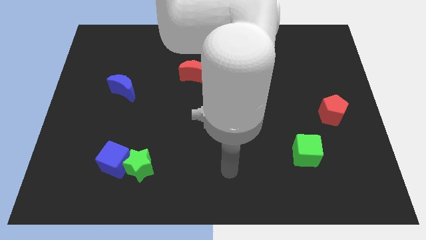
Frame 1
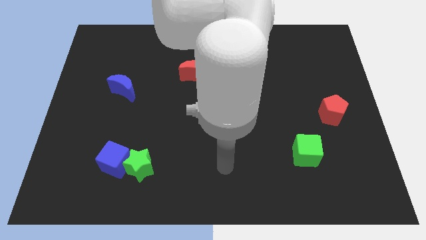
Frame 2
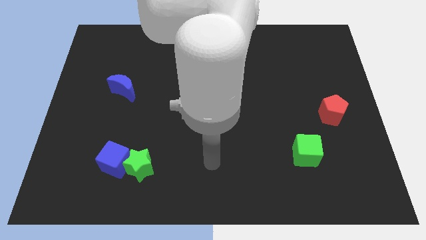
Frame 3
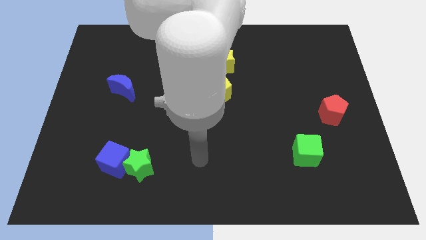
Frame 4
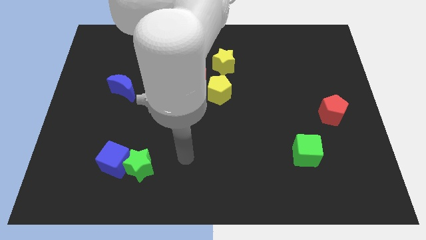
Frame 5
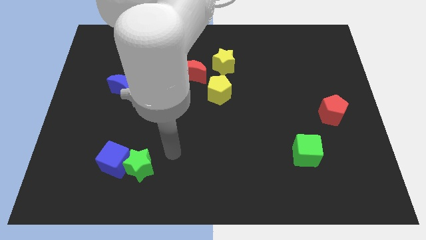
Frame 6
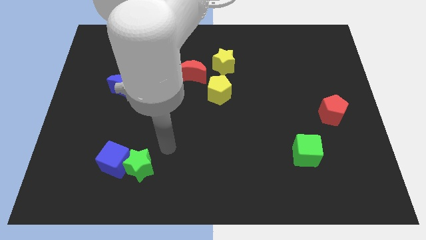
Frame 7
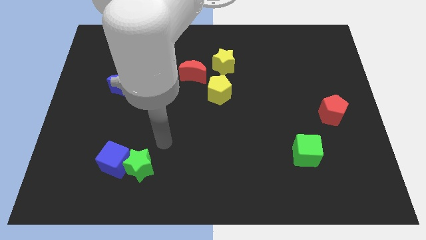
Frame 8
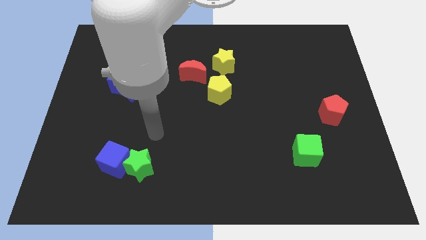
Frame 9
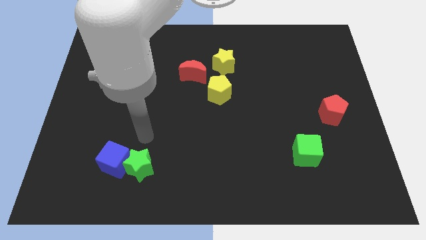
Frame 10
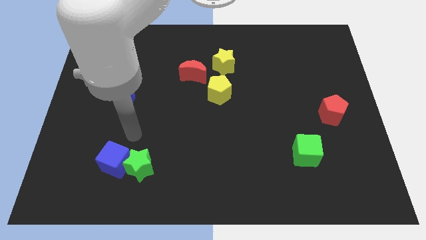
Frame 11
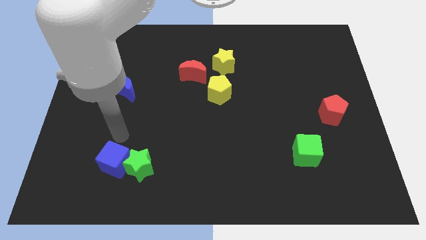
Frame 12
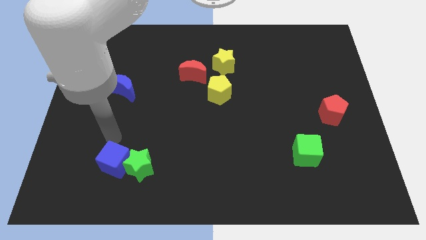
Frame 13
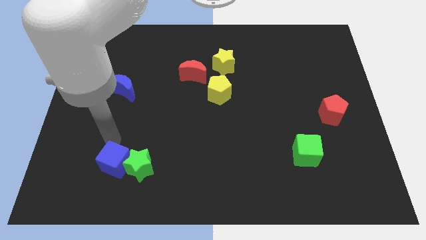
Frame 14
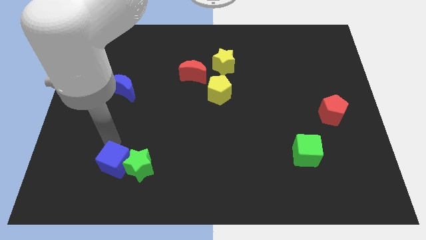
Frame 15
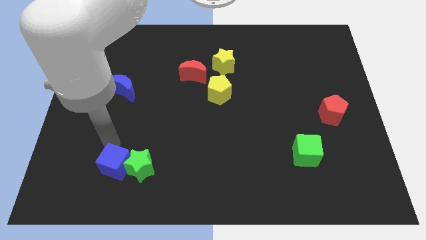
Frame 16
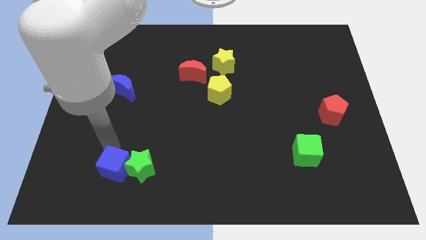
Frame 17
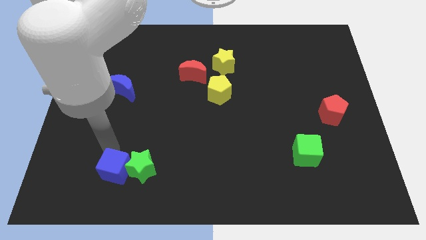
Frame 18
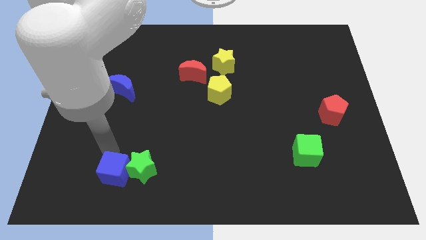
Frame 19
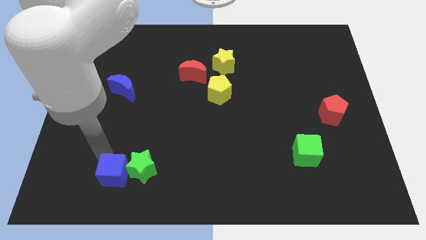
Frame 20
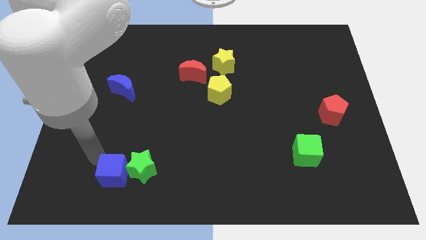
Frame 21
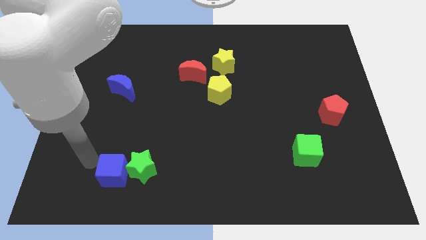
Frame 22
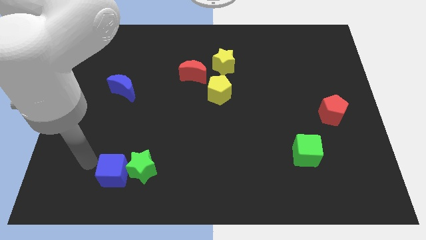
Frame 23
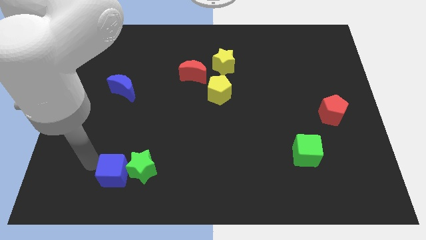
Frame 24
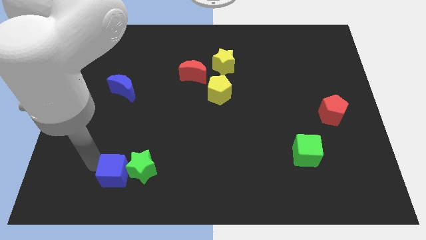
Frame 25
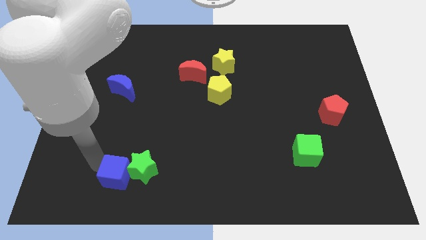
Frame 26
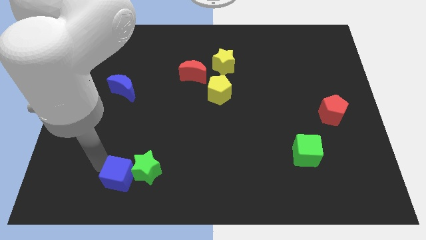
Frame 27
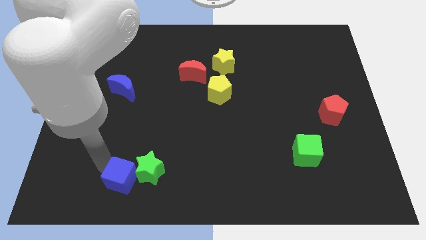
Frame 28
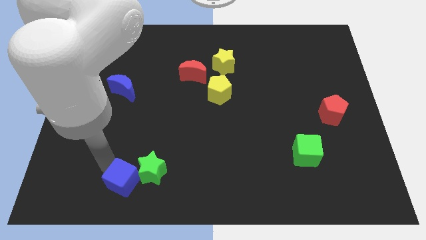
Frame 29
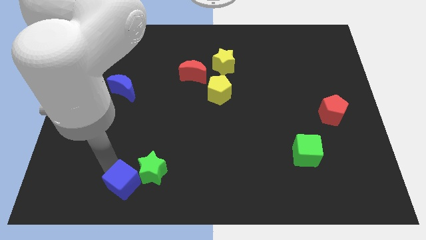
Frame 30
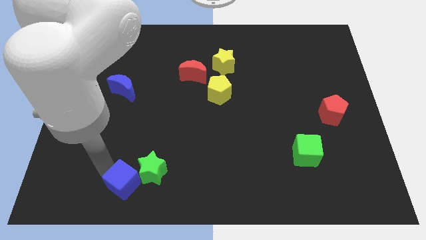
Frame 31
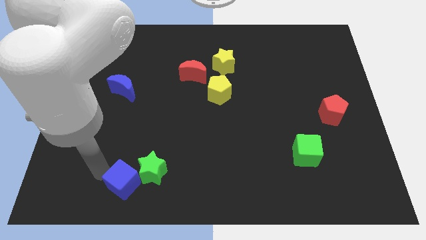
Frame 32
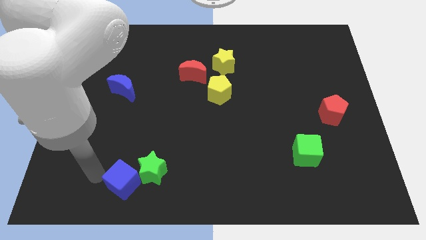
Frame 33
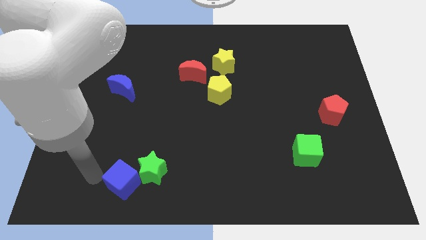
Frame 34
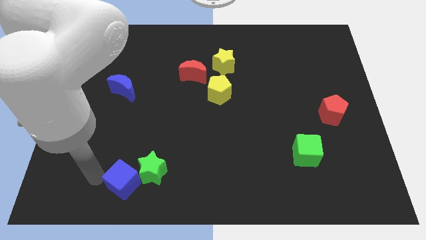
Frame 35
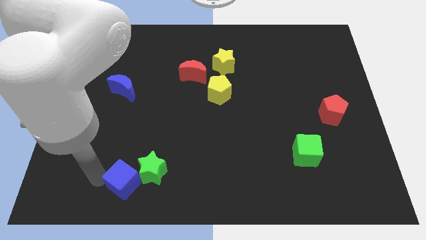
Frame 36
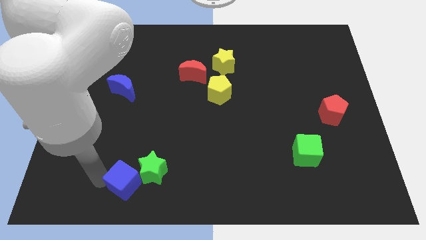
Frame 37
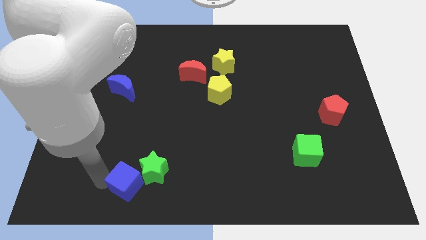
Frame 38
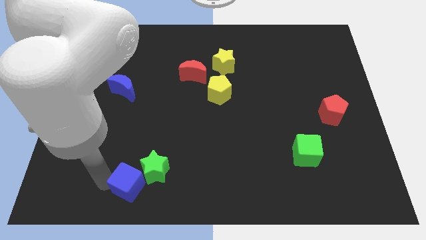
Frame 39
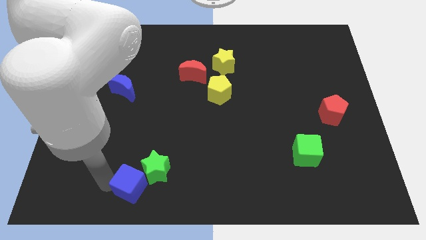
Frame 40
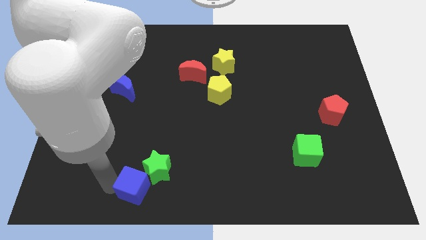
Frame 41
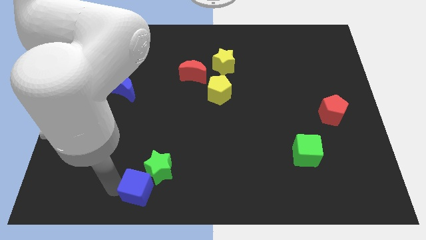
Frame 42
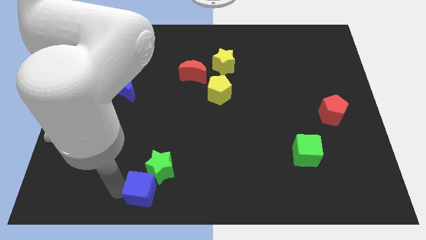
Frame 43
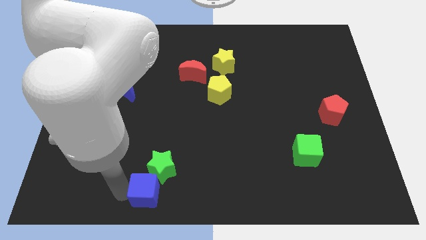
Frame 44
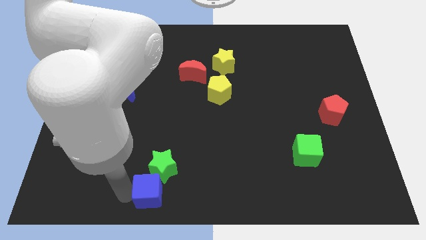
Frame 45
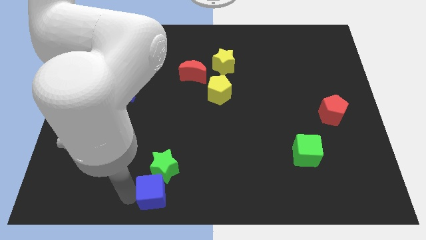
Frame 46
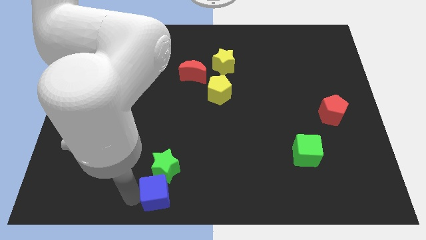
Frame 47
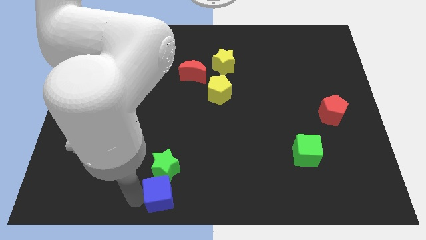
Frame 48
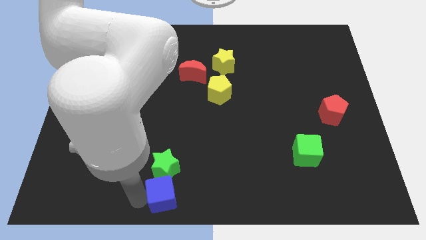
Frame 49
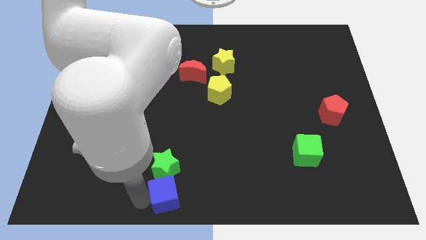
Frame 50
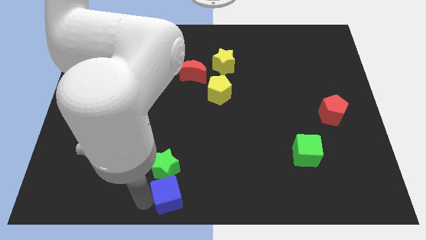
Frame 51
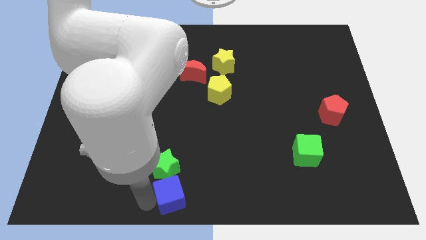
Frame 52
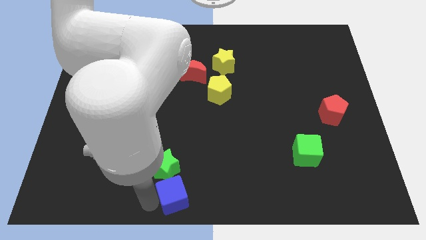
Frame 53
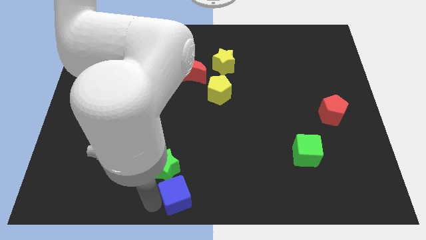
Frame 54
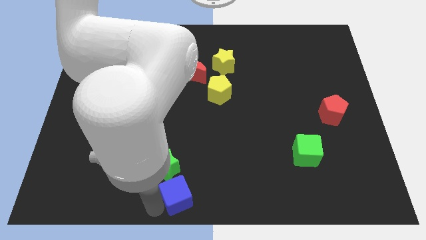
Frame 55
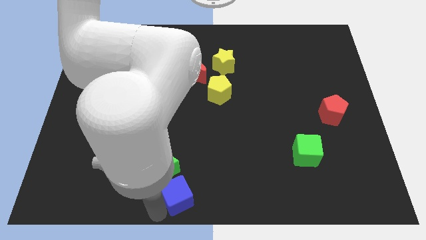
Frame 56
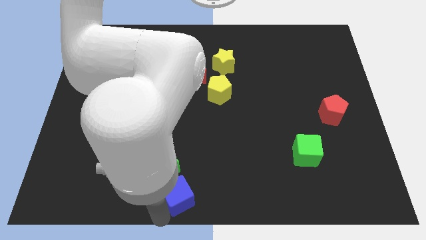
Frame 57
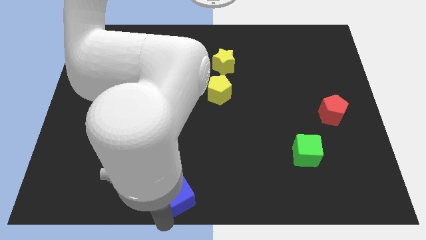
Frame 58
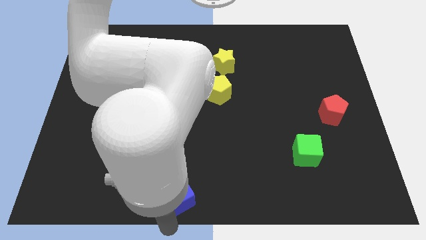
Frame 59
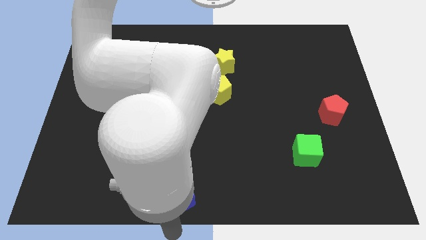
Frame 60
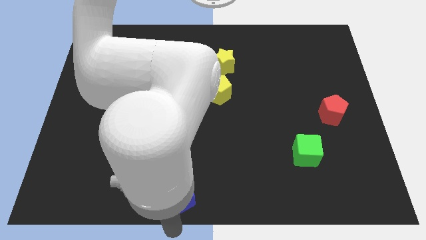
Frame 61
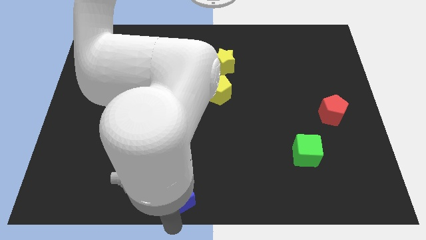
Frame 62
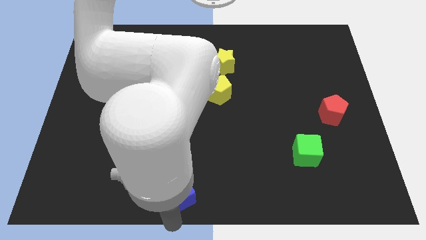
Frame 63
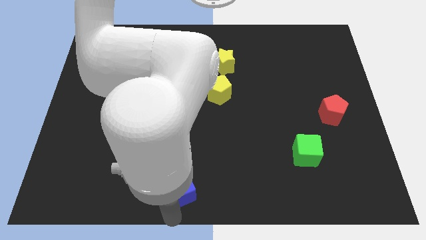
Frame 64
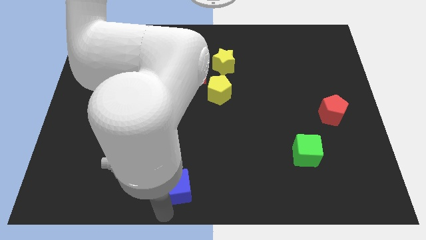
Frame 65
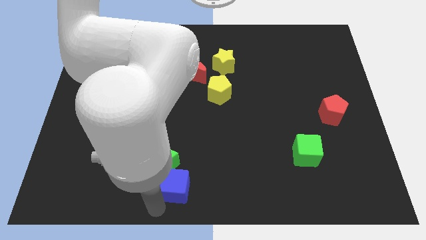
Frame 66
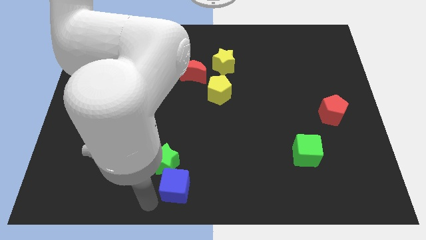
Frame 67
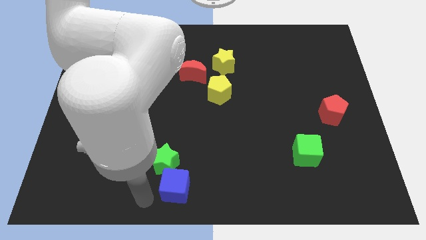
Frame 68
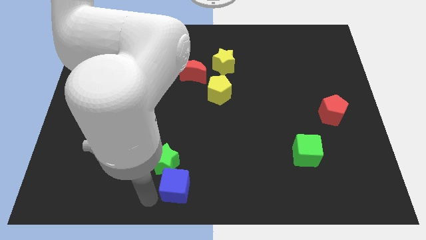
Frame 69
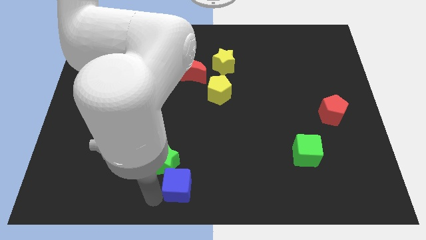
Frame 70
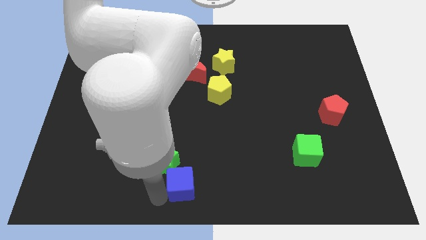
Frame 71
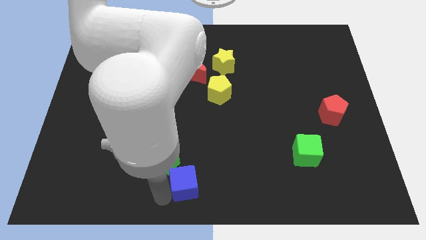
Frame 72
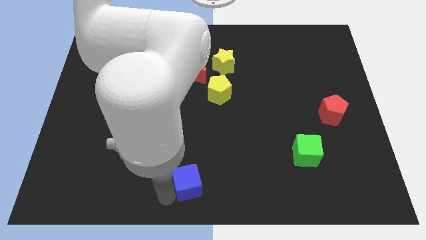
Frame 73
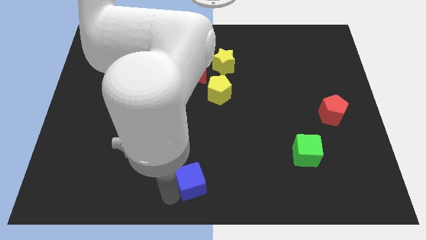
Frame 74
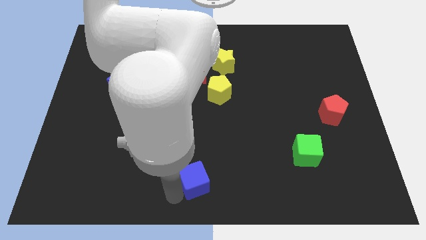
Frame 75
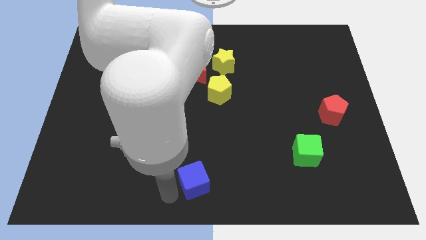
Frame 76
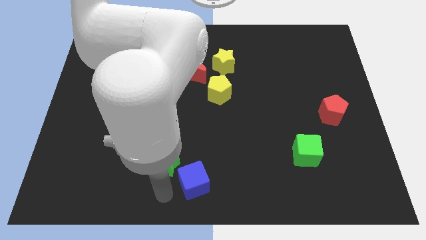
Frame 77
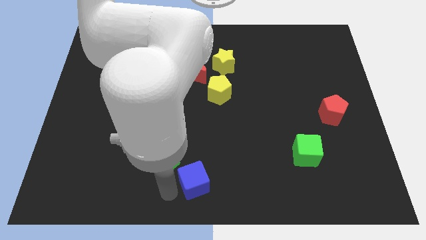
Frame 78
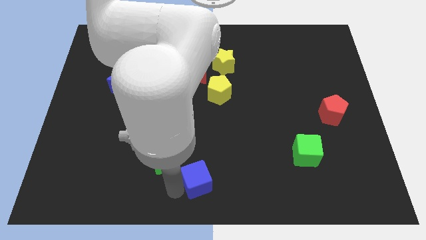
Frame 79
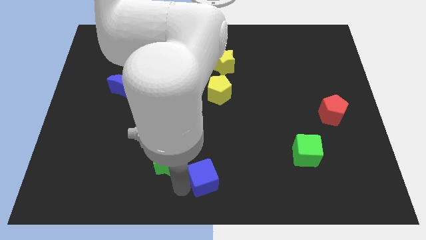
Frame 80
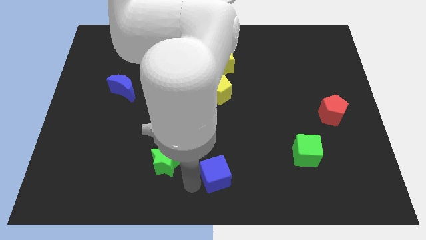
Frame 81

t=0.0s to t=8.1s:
move the blue cube to the right
